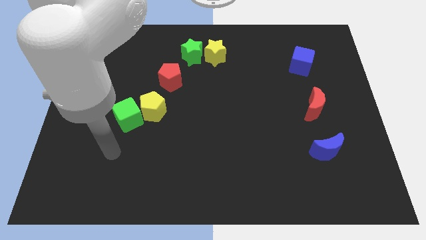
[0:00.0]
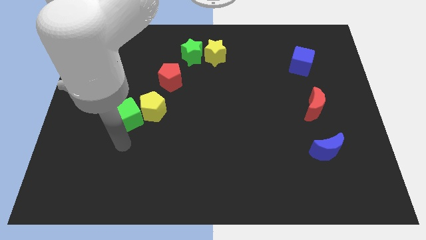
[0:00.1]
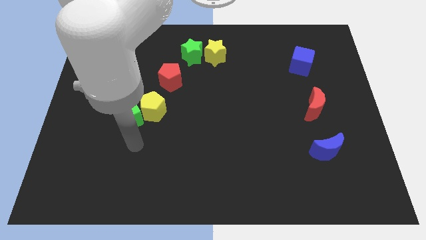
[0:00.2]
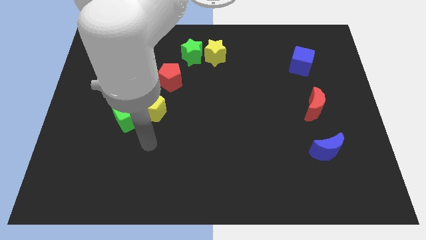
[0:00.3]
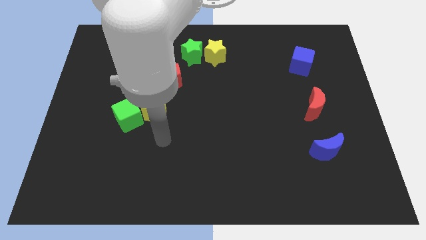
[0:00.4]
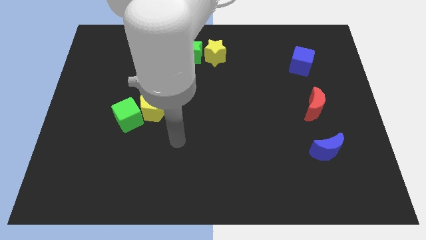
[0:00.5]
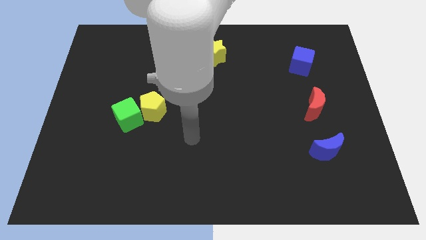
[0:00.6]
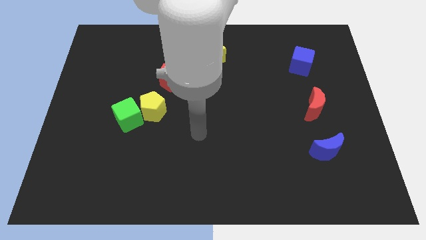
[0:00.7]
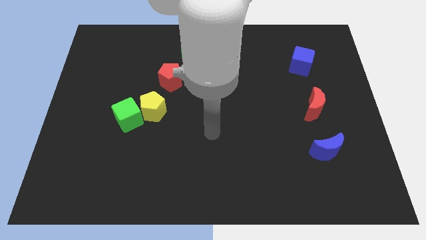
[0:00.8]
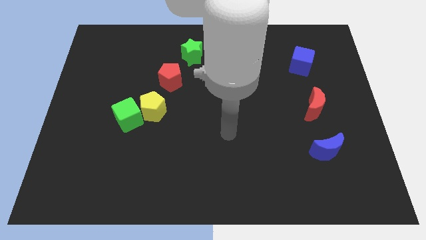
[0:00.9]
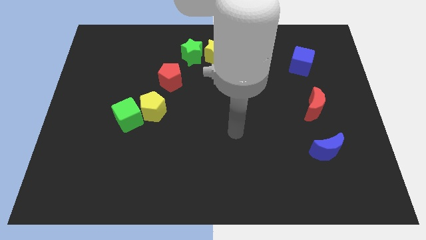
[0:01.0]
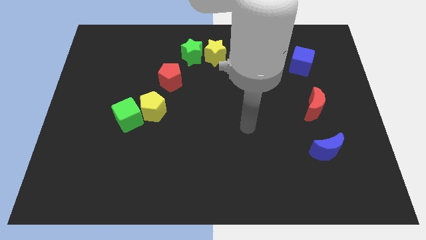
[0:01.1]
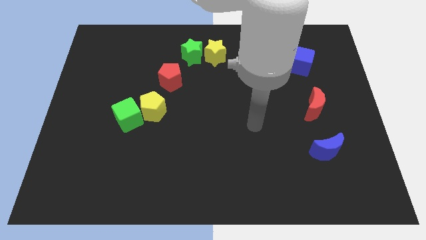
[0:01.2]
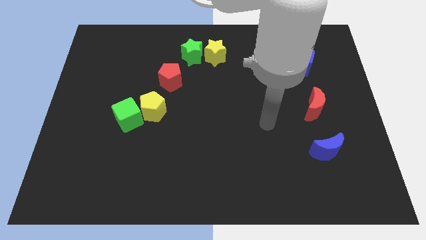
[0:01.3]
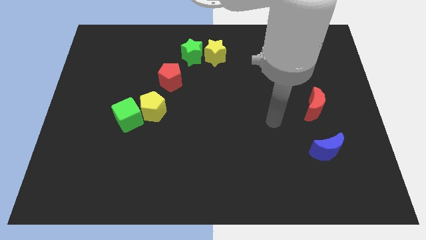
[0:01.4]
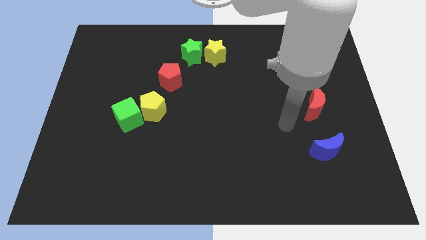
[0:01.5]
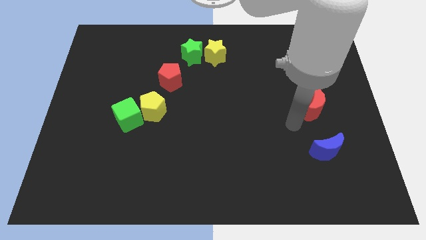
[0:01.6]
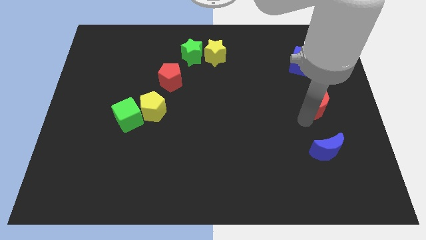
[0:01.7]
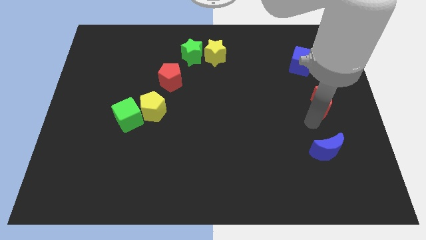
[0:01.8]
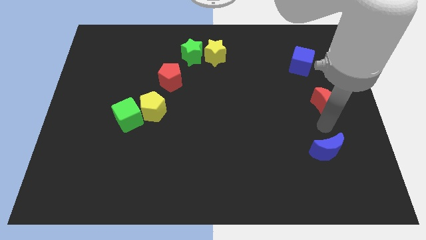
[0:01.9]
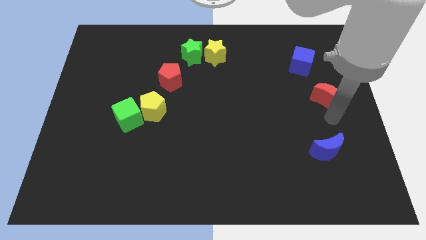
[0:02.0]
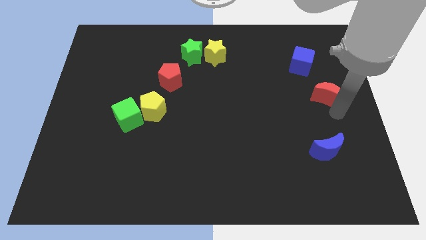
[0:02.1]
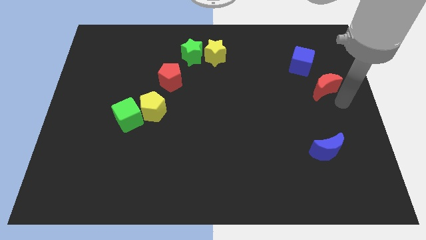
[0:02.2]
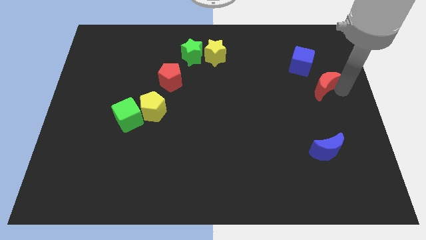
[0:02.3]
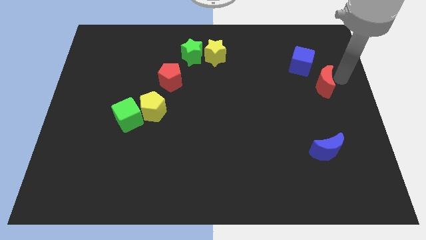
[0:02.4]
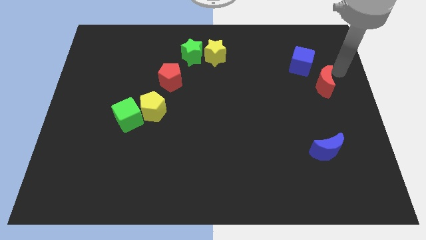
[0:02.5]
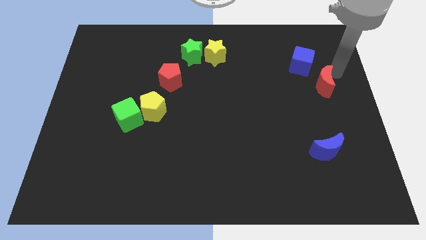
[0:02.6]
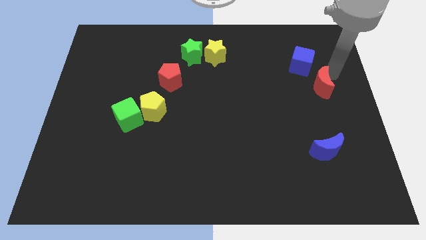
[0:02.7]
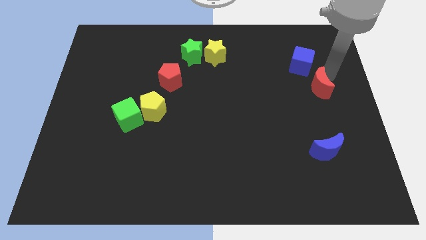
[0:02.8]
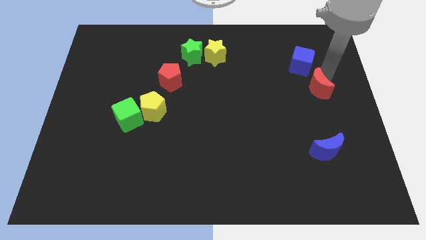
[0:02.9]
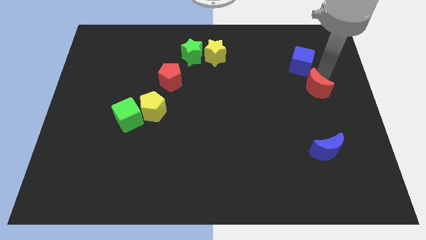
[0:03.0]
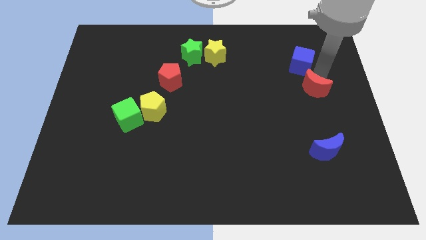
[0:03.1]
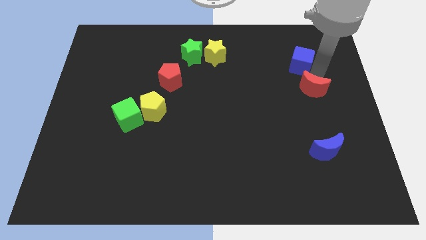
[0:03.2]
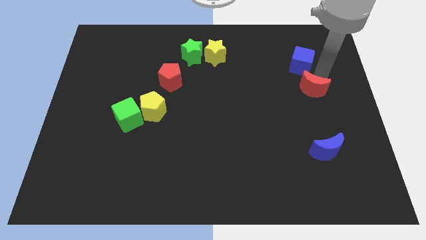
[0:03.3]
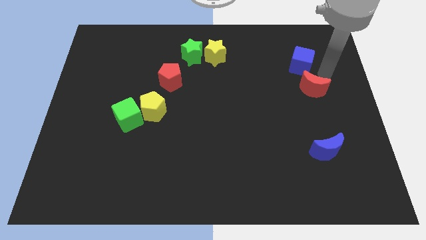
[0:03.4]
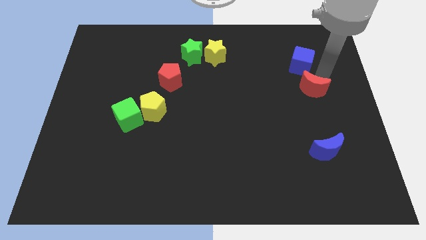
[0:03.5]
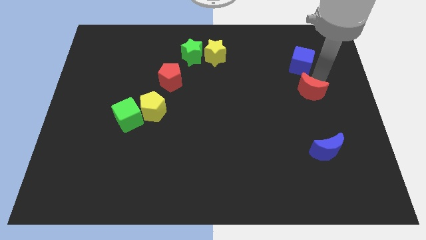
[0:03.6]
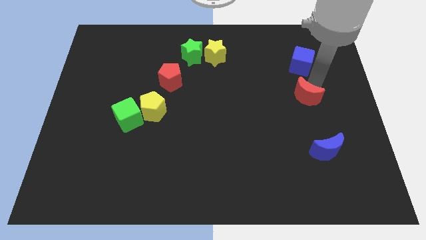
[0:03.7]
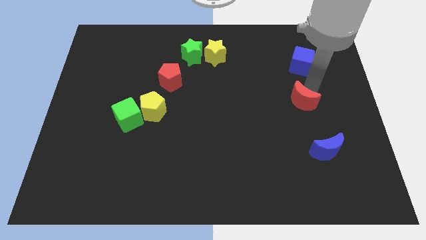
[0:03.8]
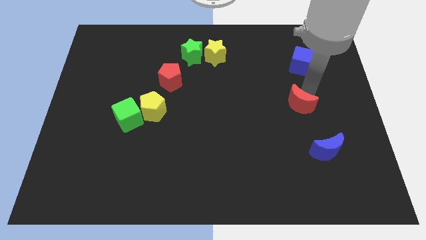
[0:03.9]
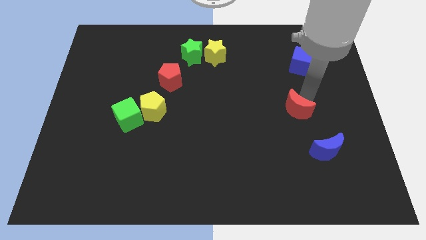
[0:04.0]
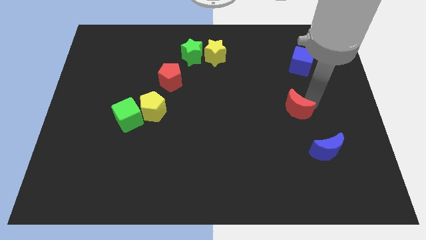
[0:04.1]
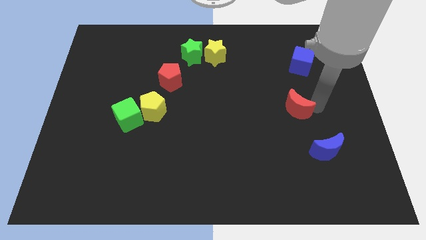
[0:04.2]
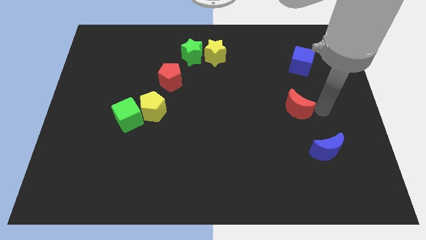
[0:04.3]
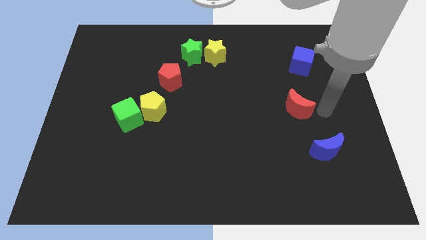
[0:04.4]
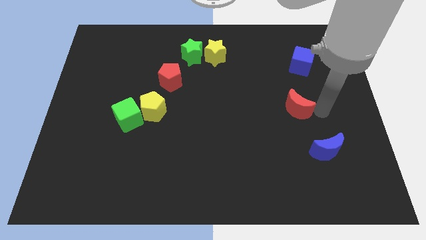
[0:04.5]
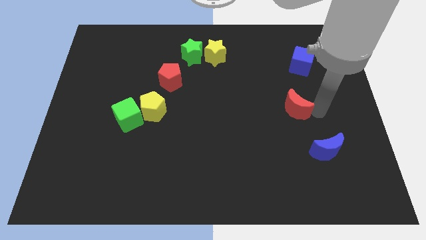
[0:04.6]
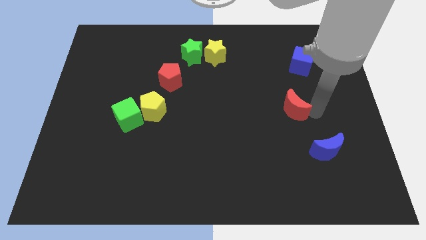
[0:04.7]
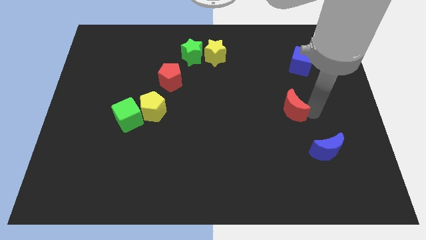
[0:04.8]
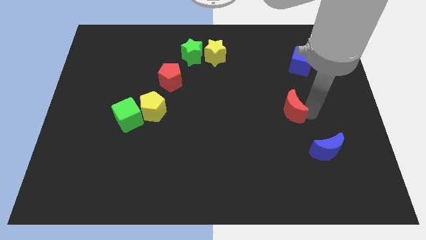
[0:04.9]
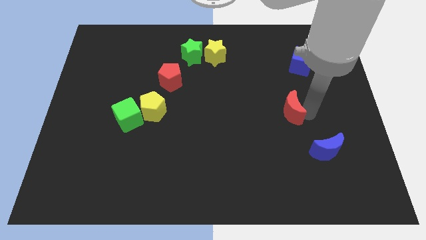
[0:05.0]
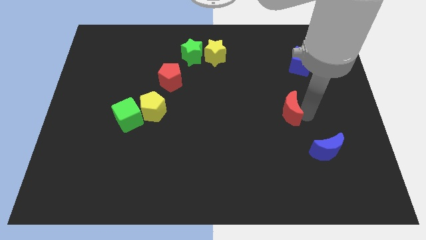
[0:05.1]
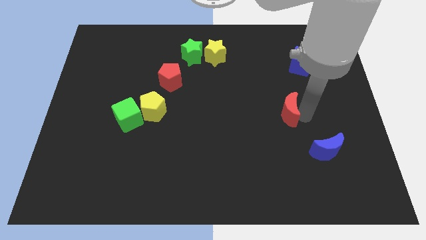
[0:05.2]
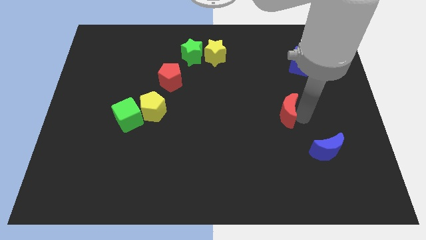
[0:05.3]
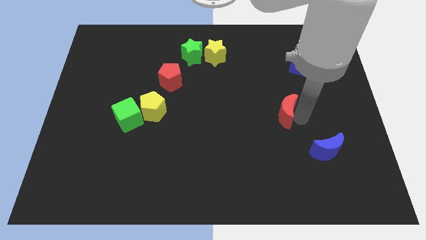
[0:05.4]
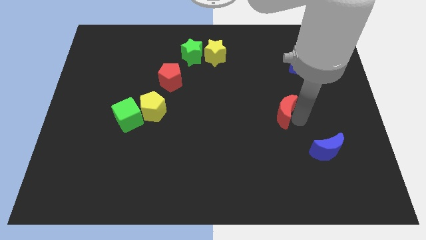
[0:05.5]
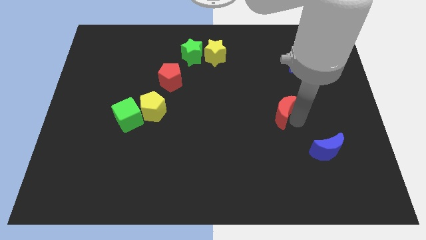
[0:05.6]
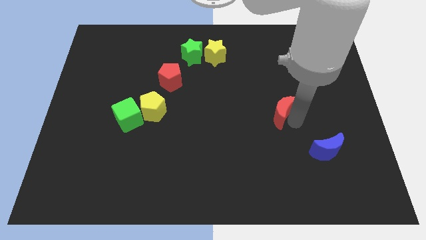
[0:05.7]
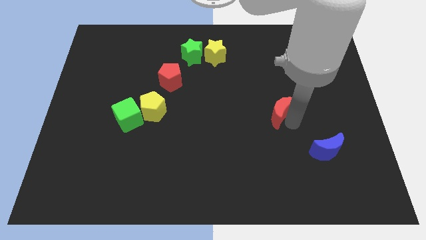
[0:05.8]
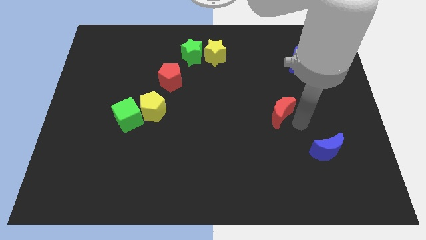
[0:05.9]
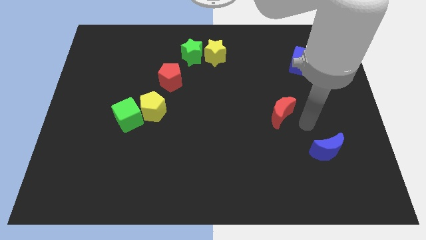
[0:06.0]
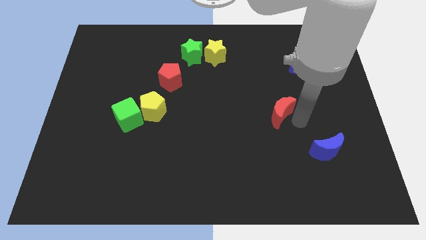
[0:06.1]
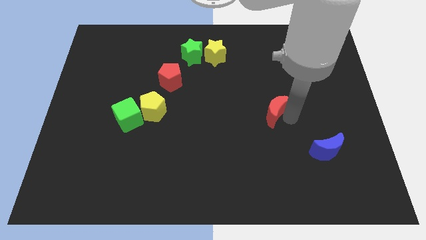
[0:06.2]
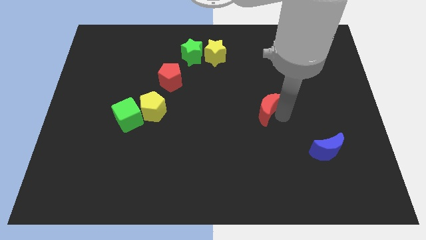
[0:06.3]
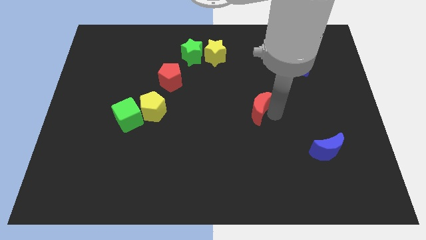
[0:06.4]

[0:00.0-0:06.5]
put the red moon to the middle
